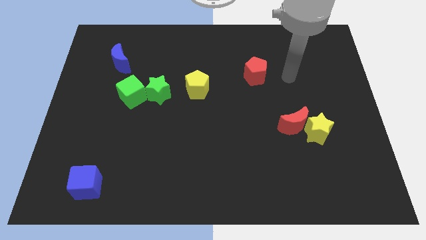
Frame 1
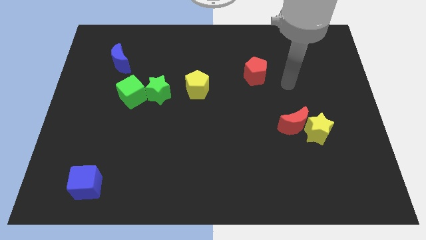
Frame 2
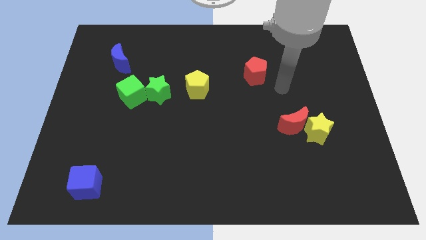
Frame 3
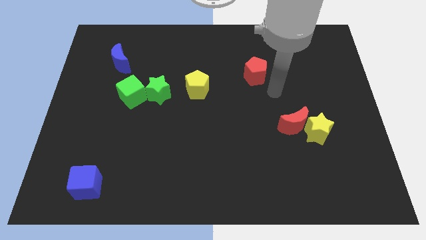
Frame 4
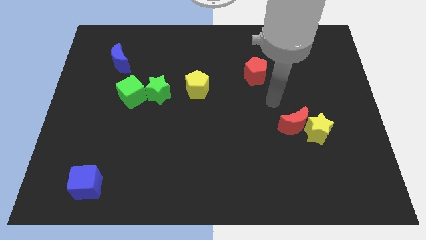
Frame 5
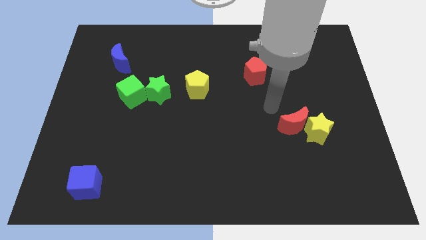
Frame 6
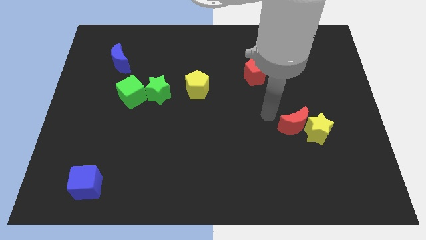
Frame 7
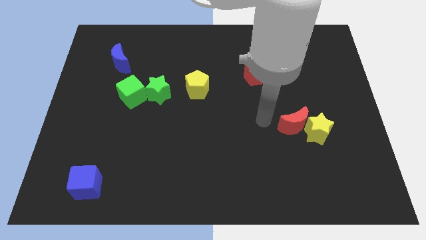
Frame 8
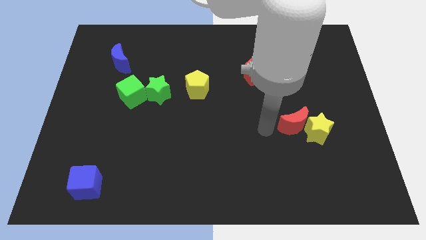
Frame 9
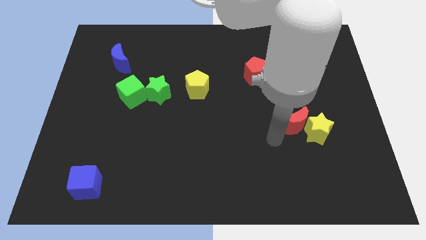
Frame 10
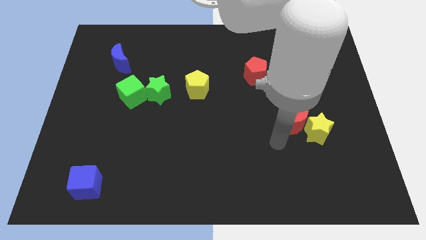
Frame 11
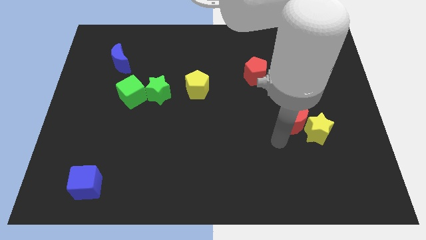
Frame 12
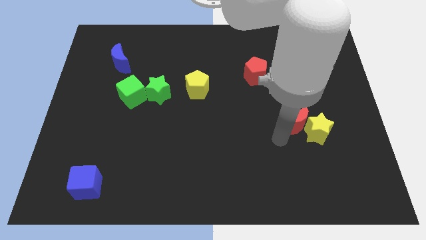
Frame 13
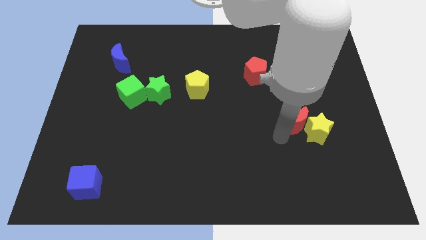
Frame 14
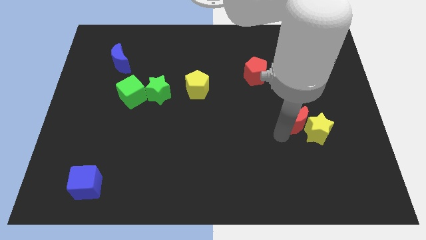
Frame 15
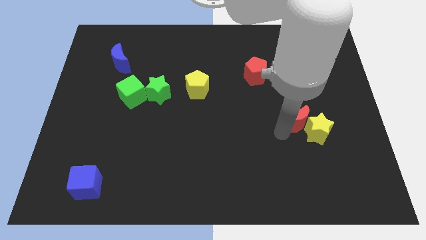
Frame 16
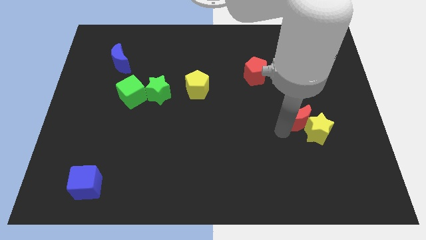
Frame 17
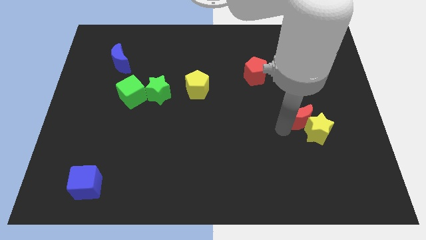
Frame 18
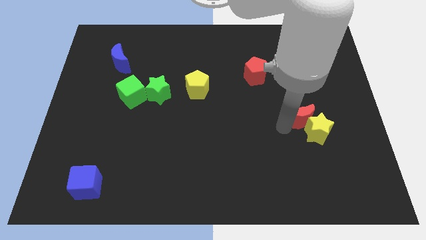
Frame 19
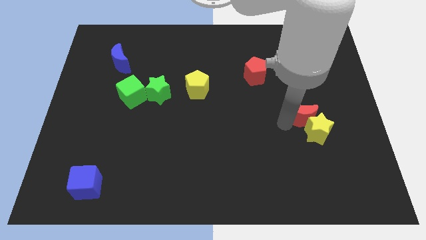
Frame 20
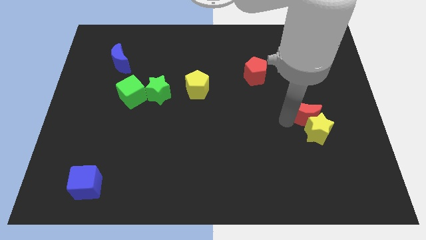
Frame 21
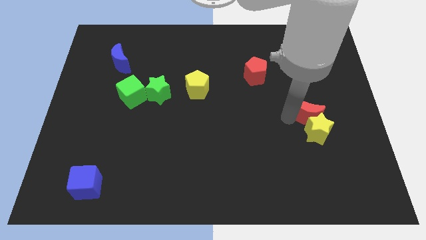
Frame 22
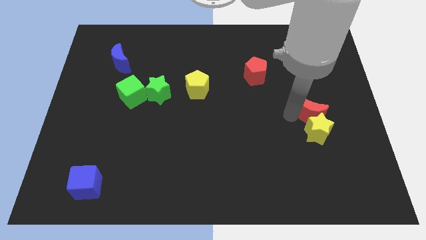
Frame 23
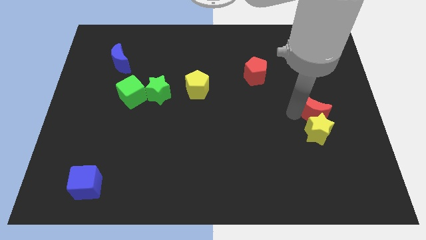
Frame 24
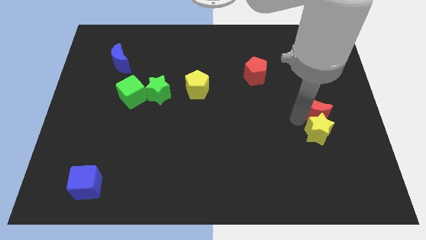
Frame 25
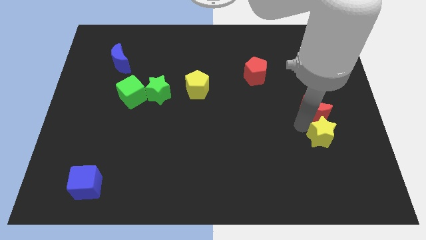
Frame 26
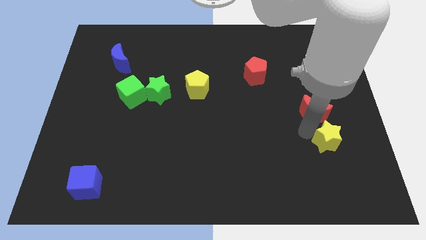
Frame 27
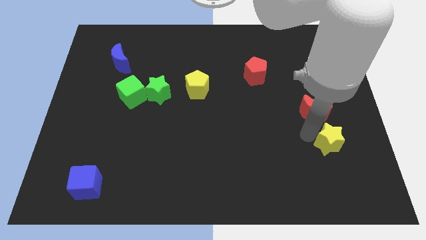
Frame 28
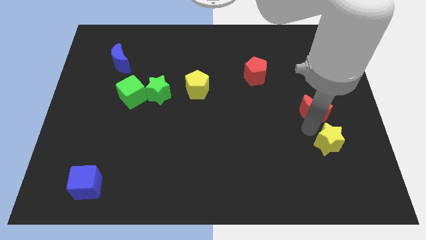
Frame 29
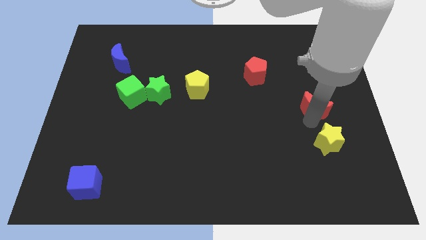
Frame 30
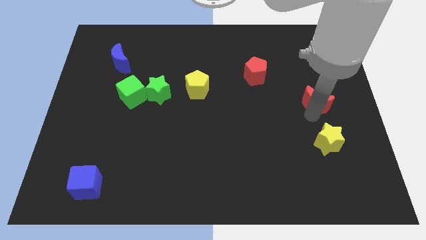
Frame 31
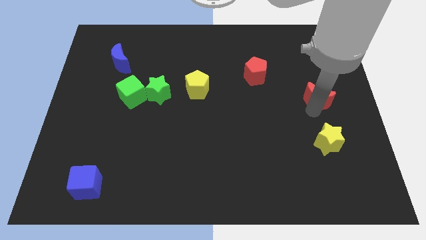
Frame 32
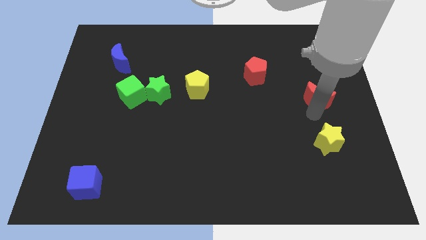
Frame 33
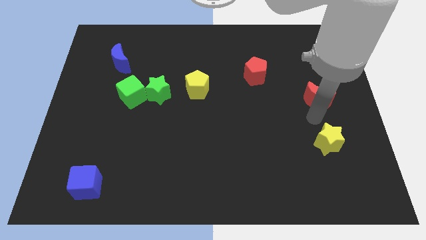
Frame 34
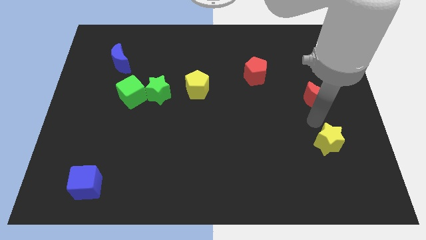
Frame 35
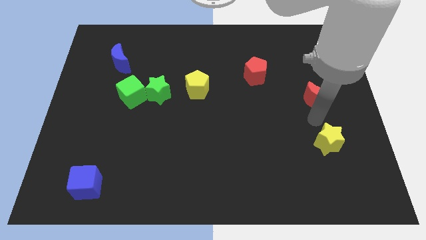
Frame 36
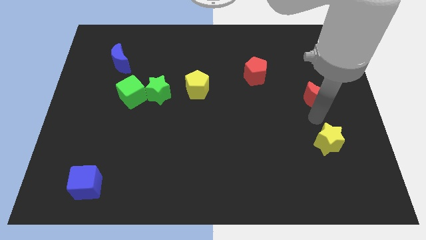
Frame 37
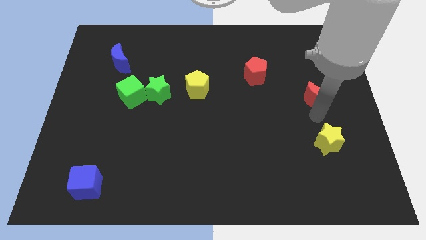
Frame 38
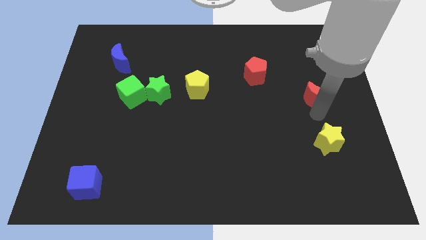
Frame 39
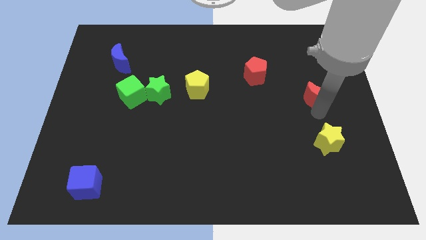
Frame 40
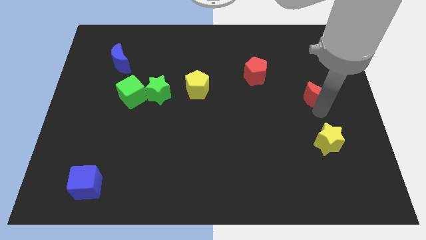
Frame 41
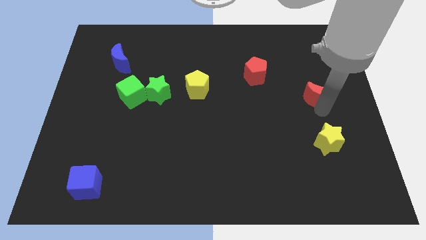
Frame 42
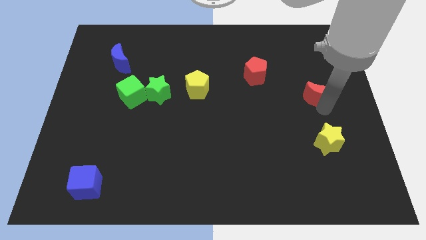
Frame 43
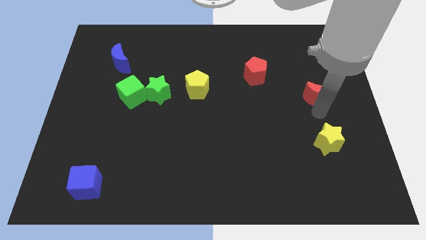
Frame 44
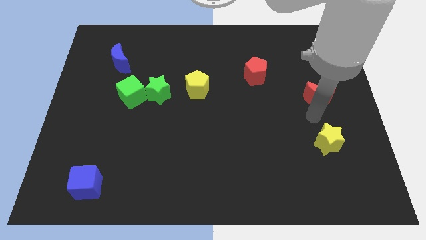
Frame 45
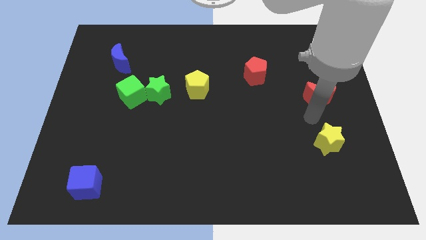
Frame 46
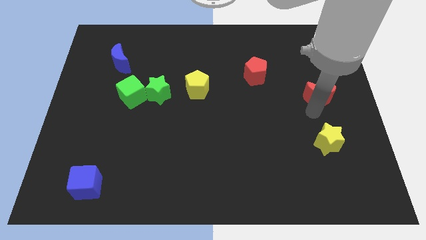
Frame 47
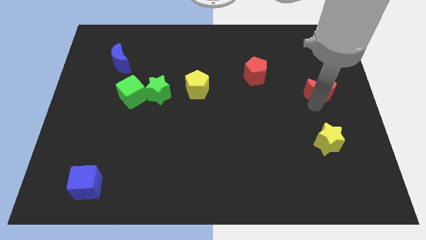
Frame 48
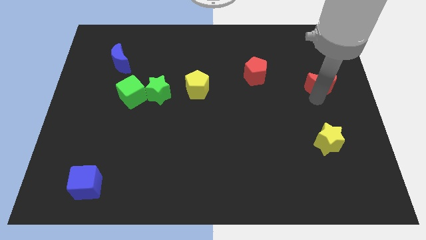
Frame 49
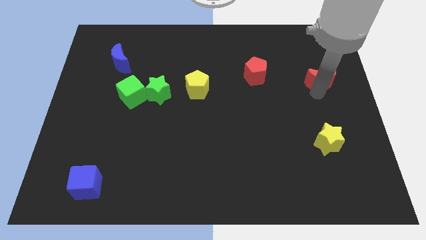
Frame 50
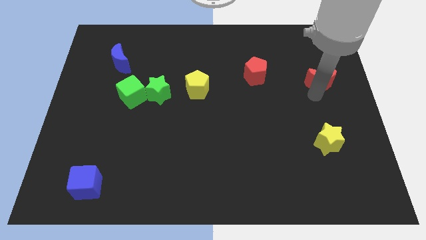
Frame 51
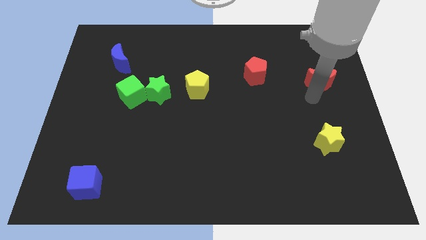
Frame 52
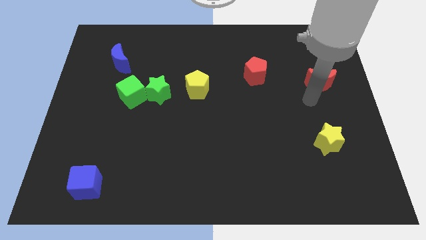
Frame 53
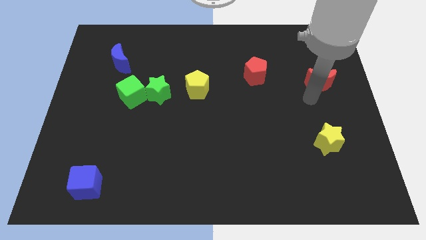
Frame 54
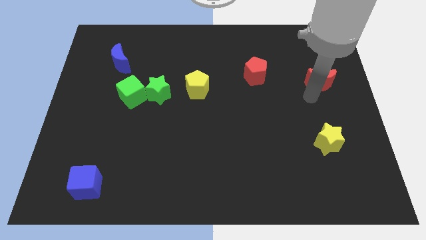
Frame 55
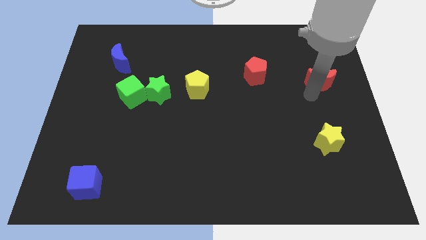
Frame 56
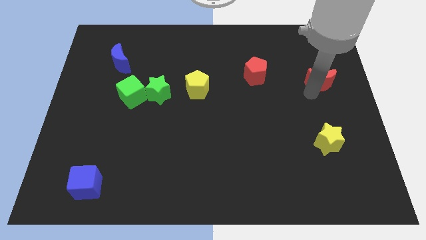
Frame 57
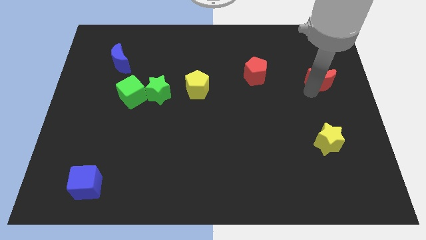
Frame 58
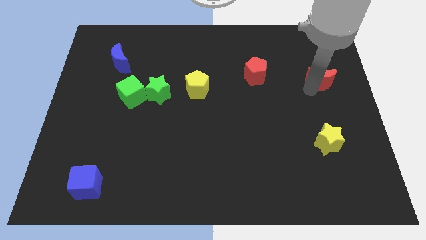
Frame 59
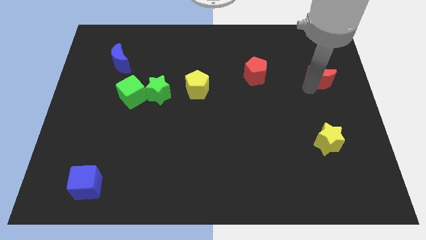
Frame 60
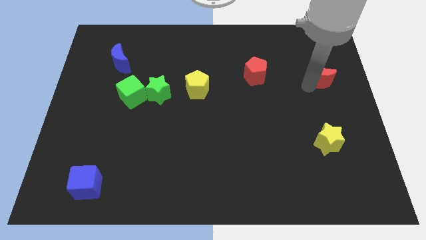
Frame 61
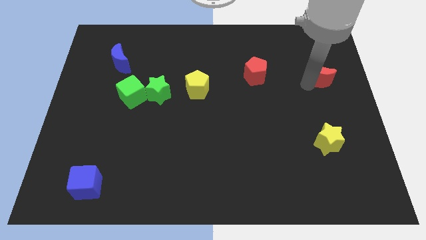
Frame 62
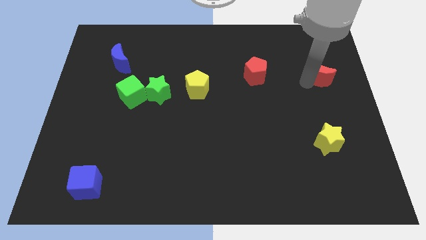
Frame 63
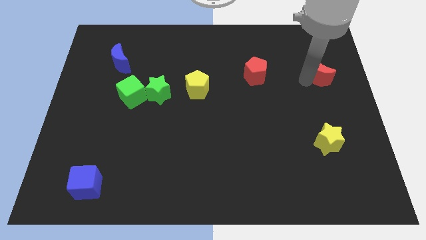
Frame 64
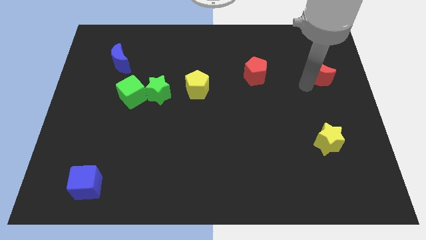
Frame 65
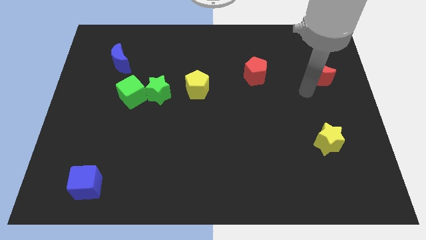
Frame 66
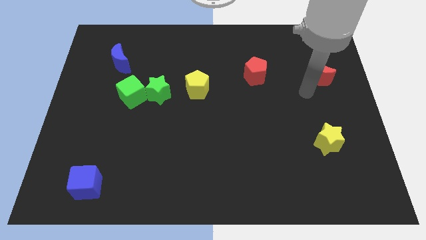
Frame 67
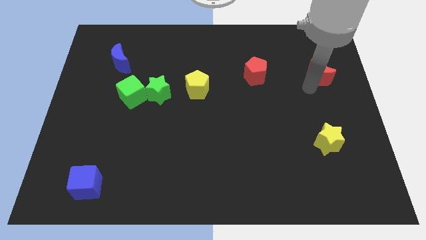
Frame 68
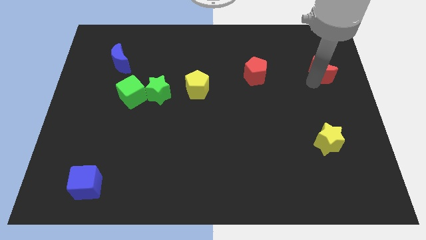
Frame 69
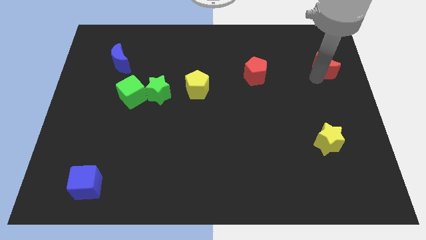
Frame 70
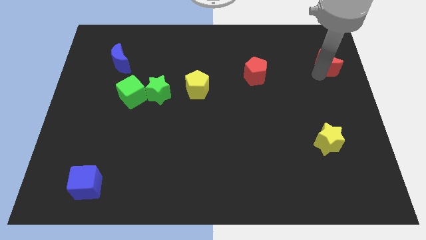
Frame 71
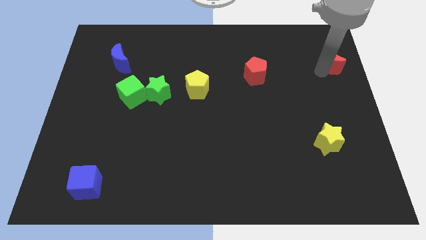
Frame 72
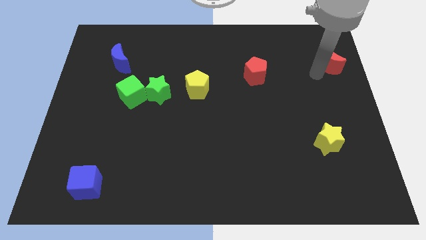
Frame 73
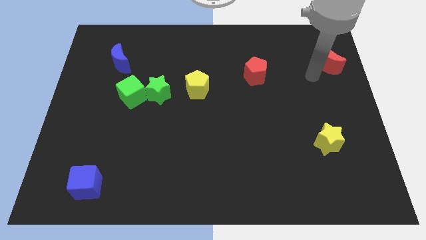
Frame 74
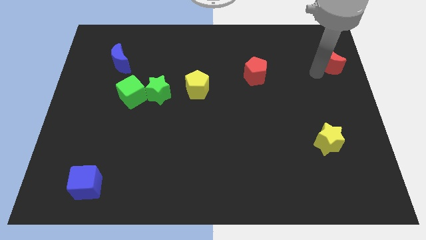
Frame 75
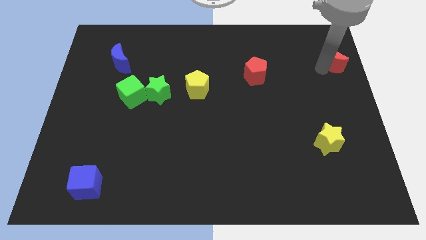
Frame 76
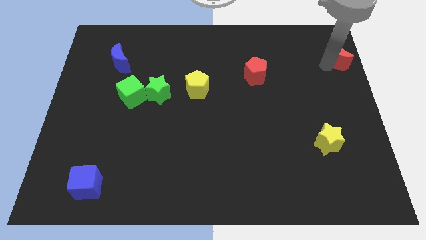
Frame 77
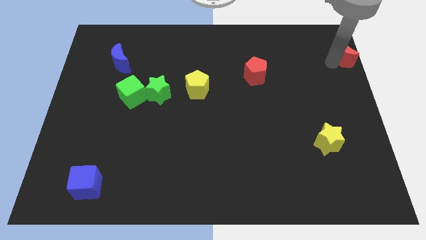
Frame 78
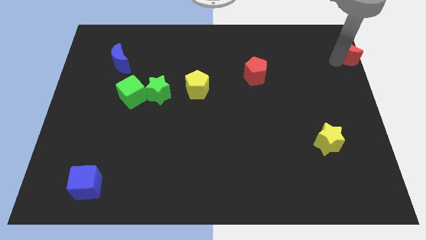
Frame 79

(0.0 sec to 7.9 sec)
push the red moon to the top right corner
